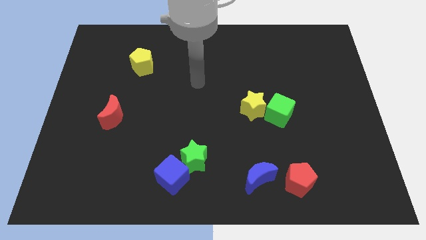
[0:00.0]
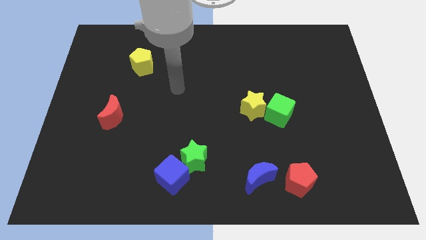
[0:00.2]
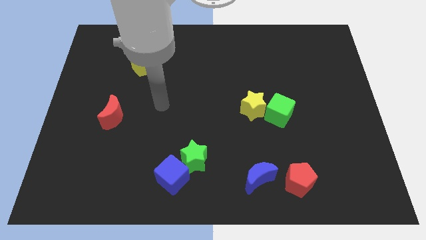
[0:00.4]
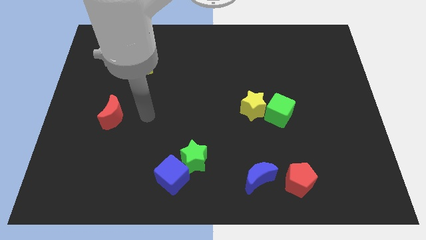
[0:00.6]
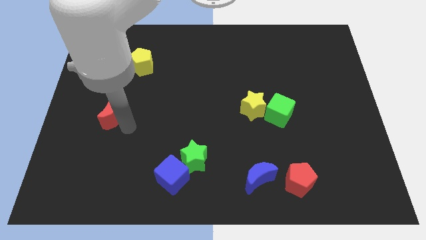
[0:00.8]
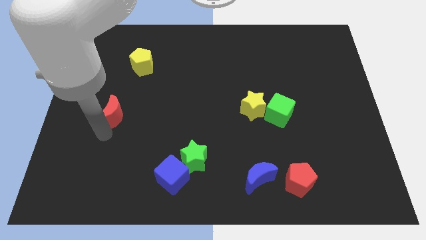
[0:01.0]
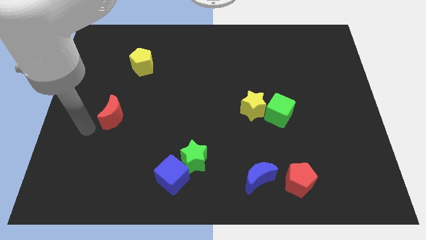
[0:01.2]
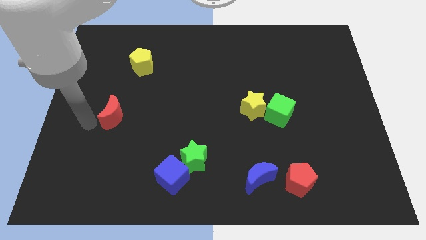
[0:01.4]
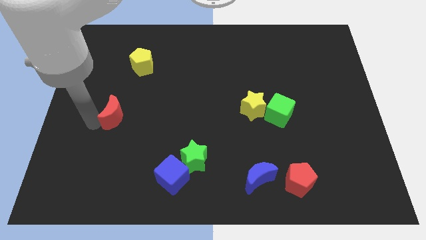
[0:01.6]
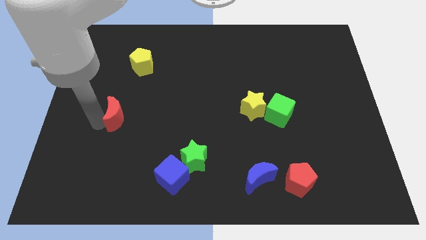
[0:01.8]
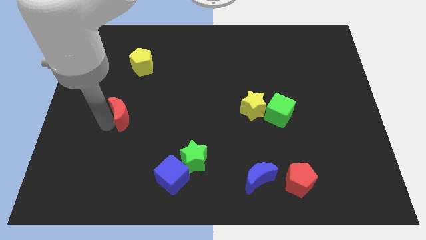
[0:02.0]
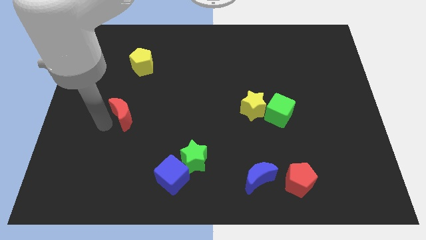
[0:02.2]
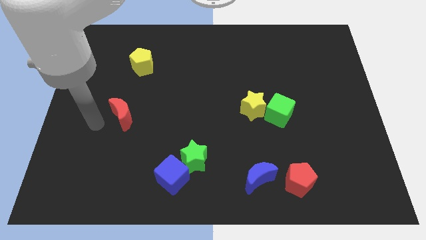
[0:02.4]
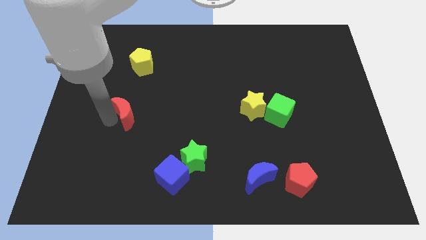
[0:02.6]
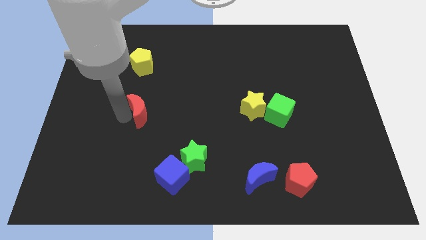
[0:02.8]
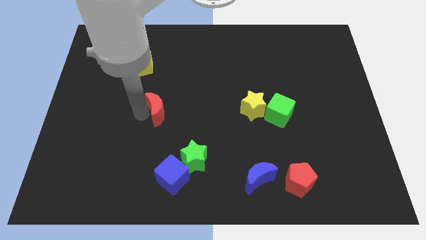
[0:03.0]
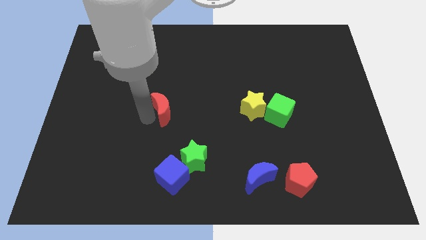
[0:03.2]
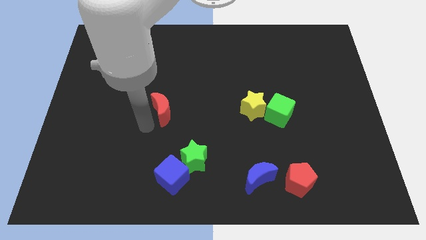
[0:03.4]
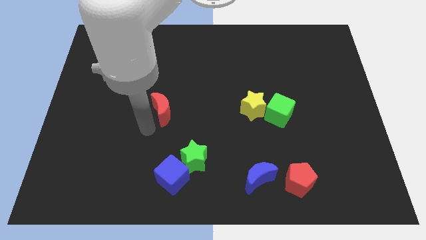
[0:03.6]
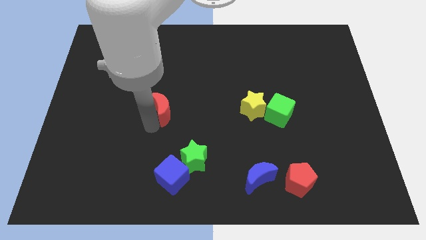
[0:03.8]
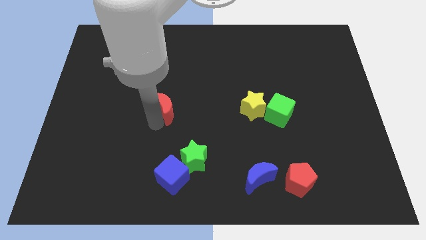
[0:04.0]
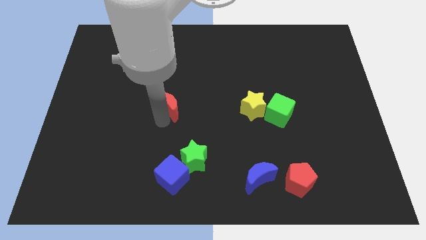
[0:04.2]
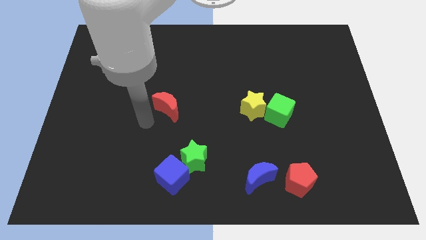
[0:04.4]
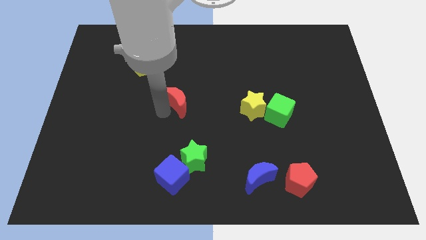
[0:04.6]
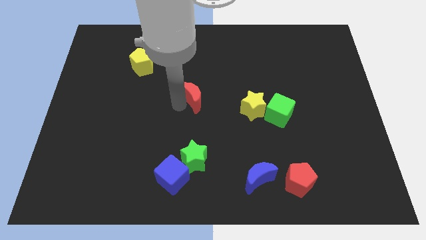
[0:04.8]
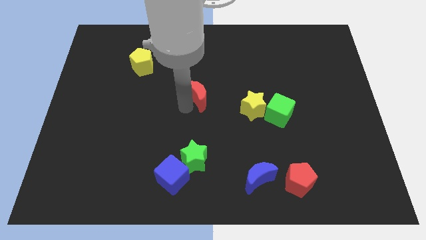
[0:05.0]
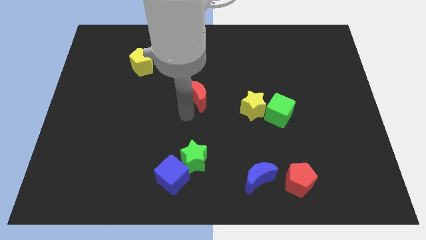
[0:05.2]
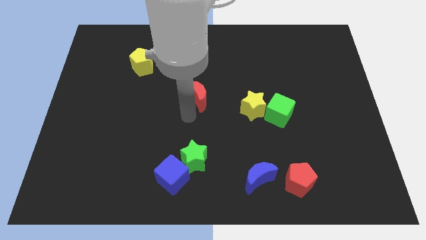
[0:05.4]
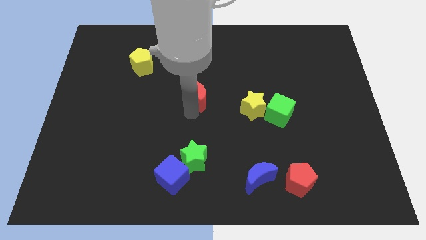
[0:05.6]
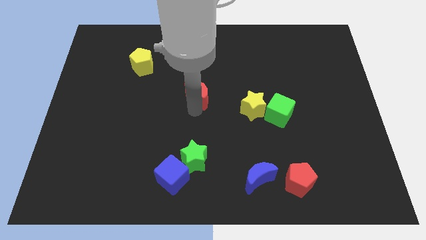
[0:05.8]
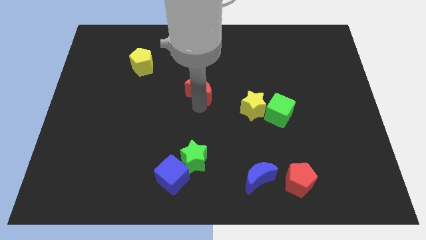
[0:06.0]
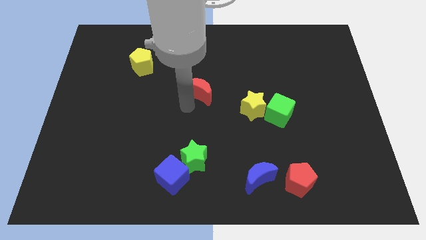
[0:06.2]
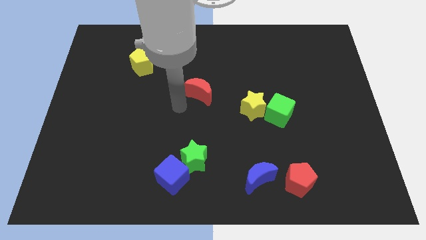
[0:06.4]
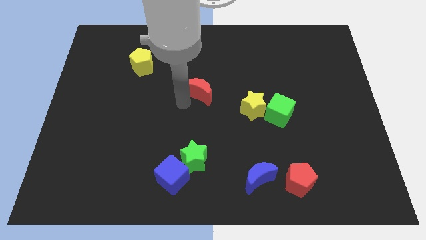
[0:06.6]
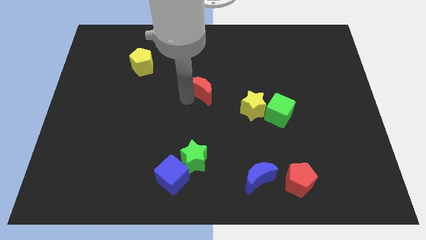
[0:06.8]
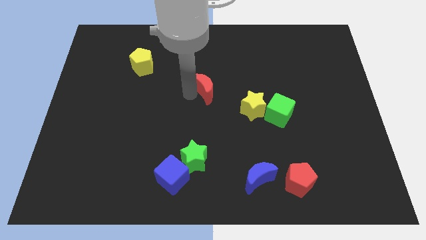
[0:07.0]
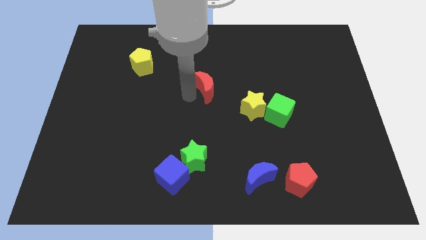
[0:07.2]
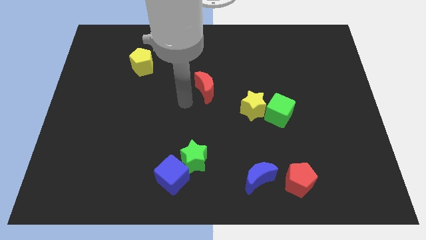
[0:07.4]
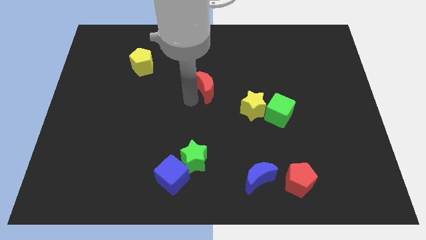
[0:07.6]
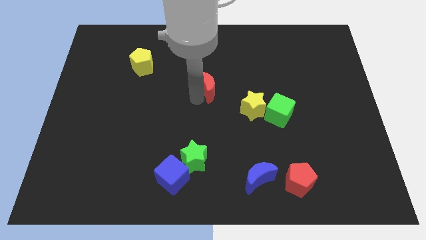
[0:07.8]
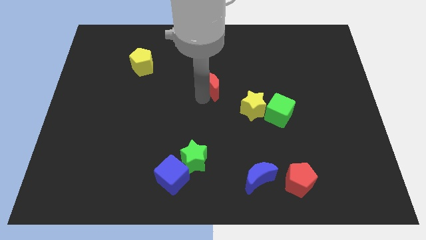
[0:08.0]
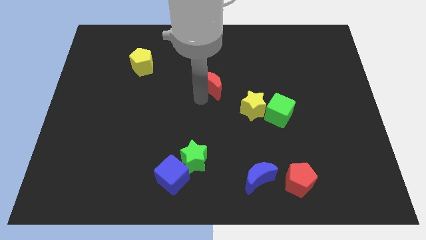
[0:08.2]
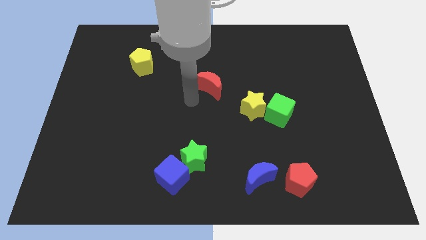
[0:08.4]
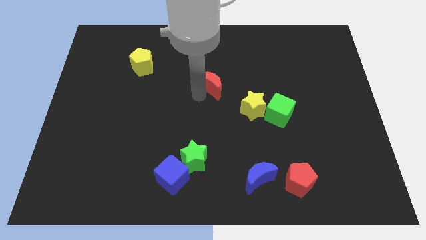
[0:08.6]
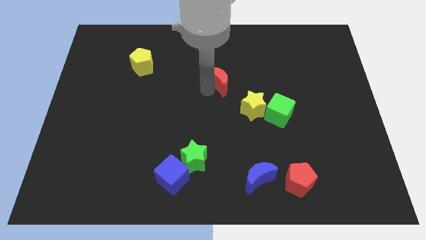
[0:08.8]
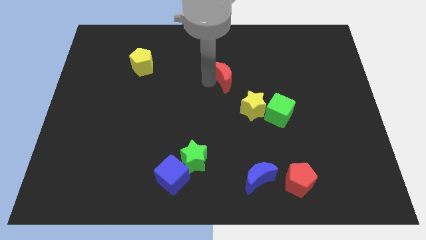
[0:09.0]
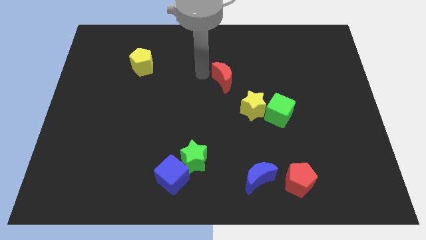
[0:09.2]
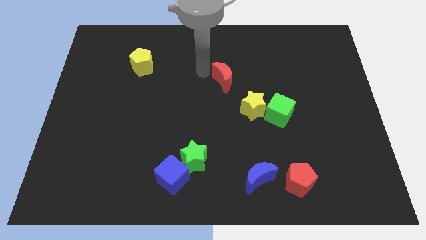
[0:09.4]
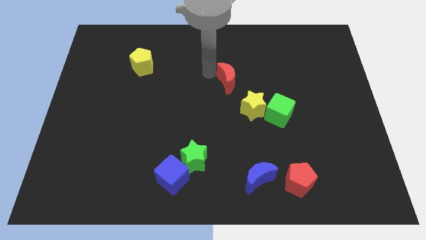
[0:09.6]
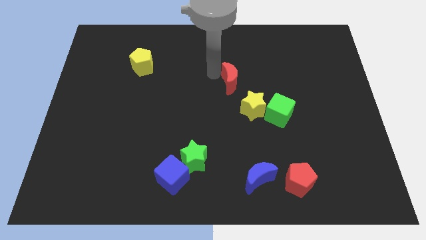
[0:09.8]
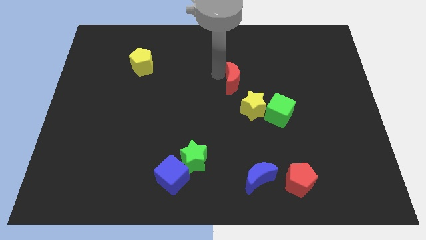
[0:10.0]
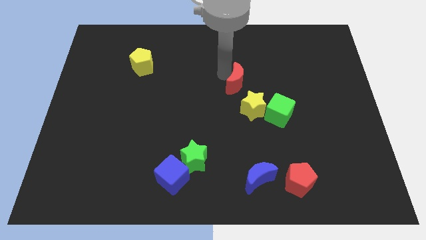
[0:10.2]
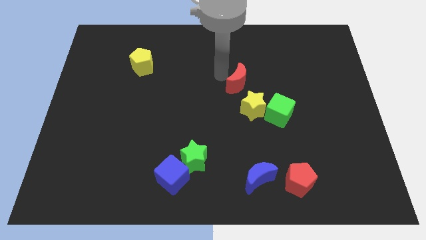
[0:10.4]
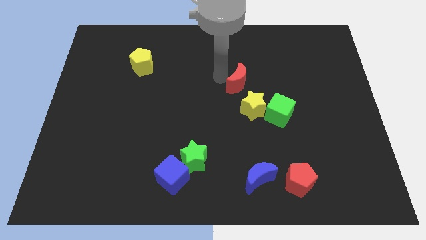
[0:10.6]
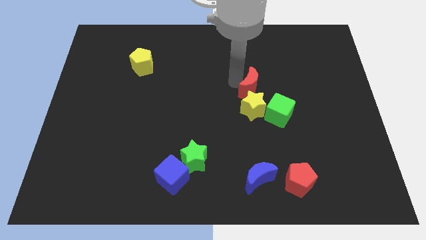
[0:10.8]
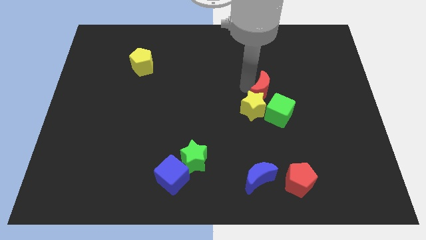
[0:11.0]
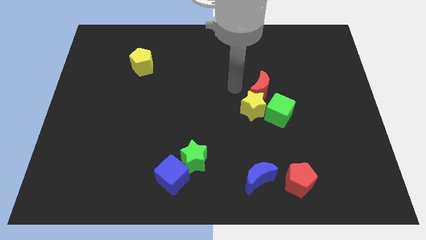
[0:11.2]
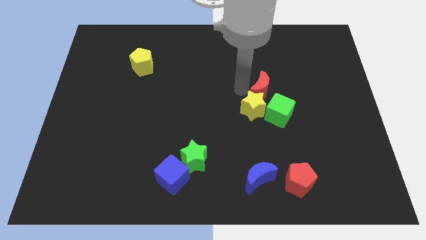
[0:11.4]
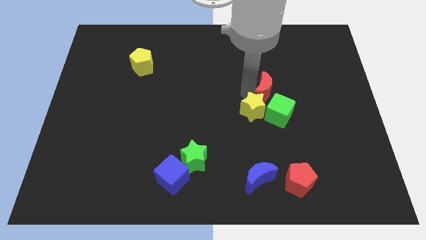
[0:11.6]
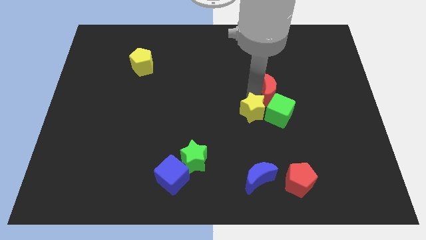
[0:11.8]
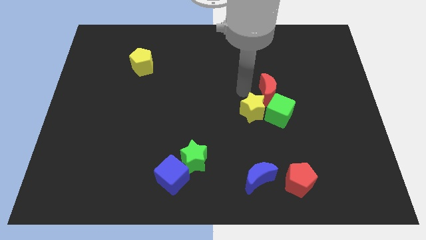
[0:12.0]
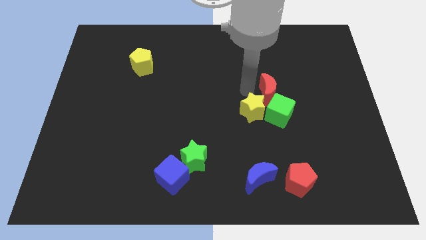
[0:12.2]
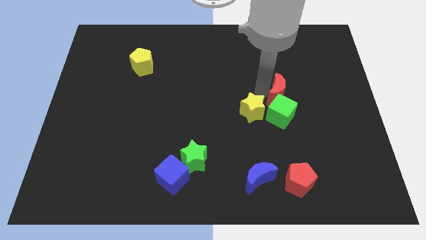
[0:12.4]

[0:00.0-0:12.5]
push the red moon to the top right of the green cube
